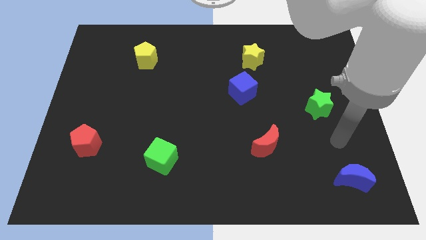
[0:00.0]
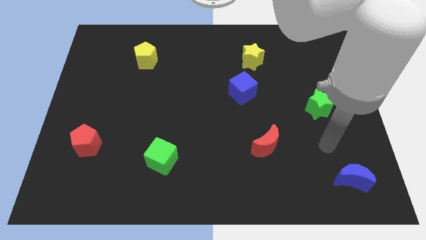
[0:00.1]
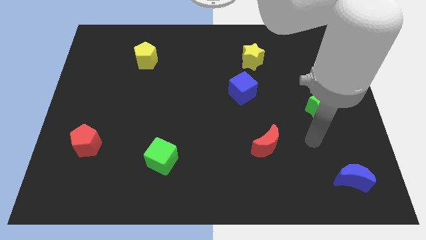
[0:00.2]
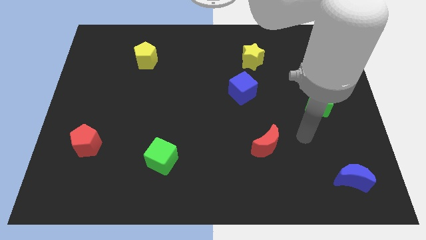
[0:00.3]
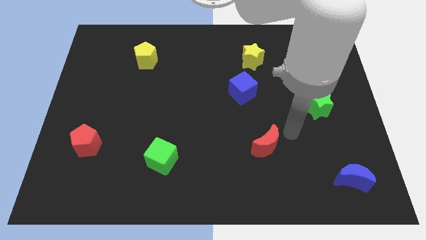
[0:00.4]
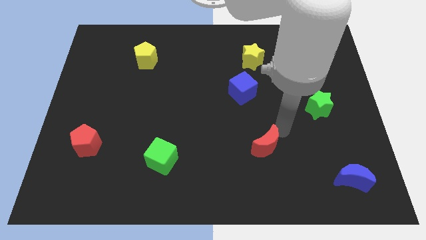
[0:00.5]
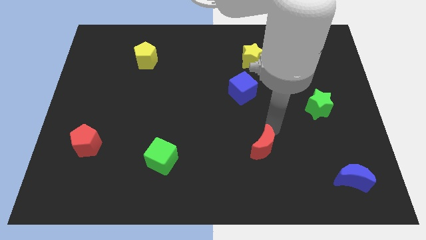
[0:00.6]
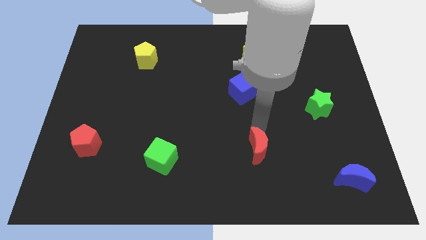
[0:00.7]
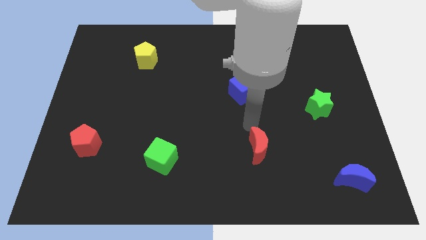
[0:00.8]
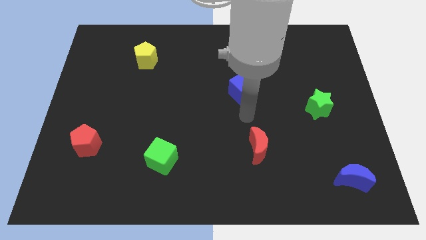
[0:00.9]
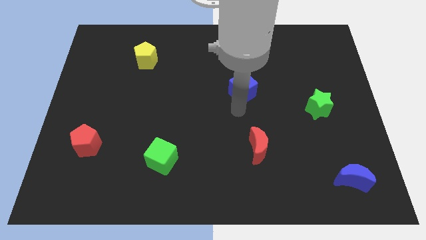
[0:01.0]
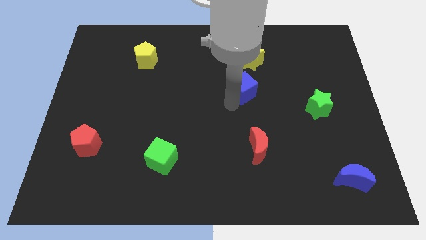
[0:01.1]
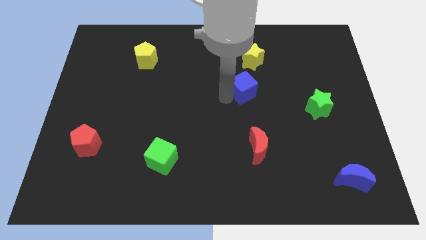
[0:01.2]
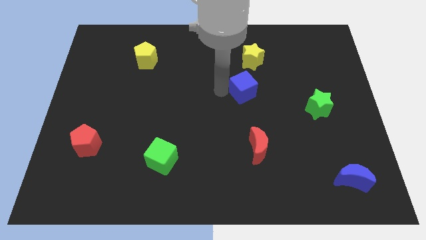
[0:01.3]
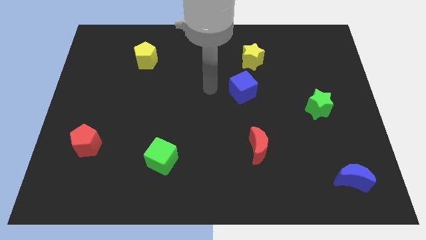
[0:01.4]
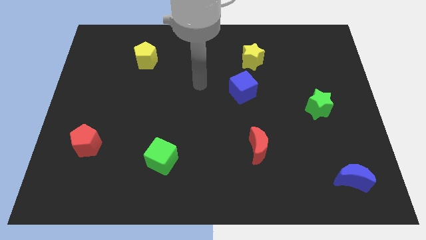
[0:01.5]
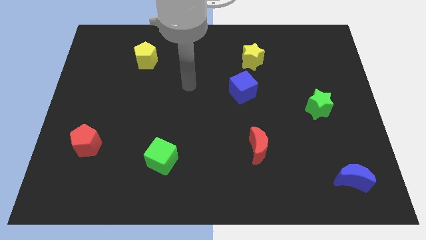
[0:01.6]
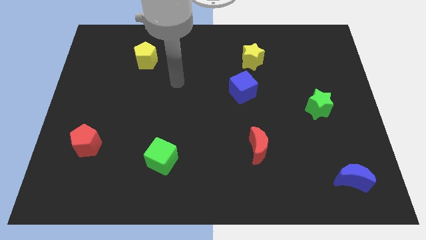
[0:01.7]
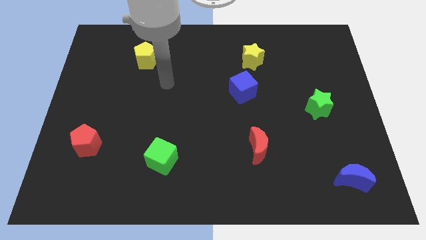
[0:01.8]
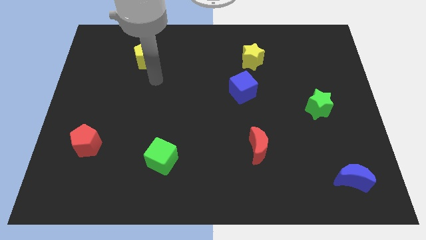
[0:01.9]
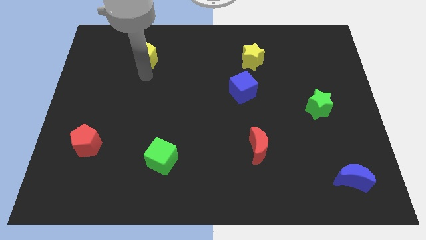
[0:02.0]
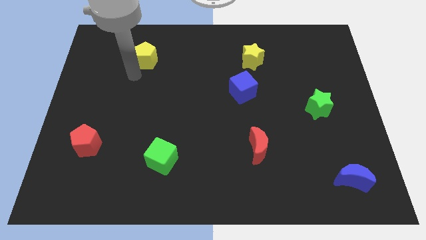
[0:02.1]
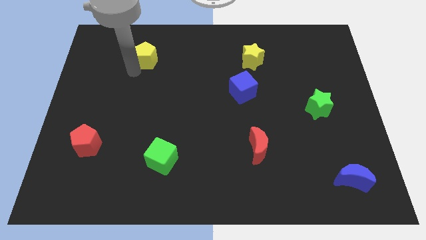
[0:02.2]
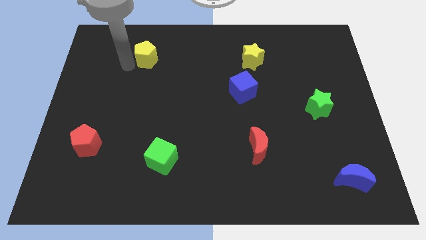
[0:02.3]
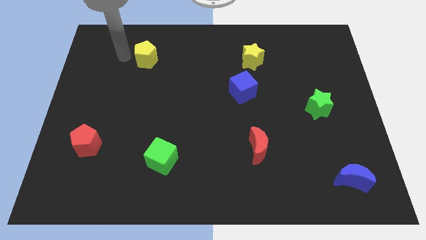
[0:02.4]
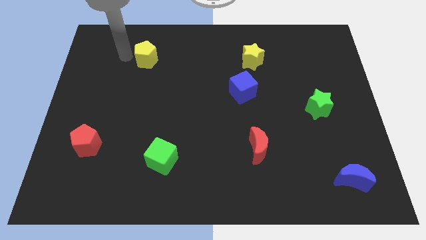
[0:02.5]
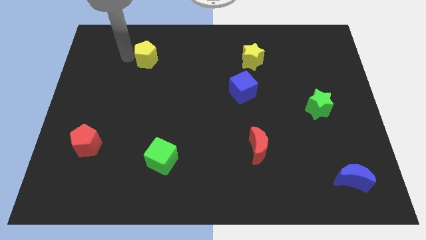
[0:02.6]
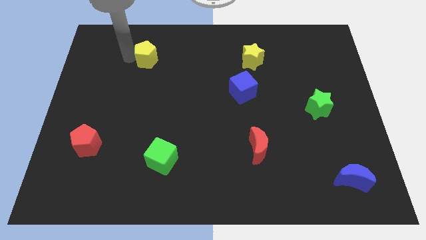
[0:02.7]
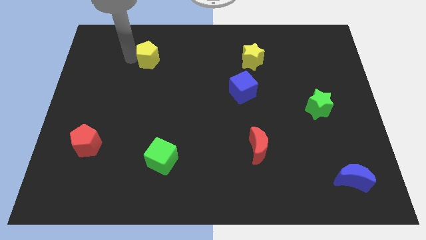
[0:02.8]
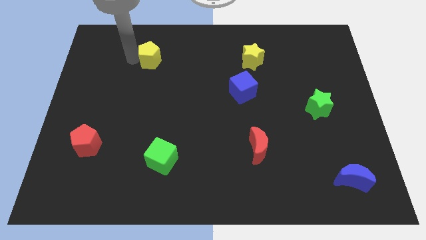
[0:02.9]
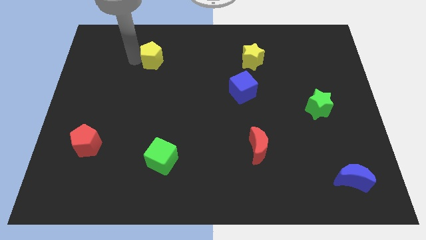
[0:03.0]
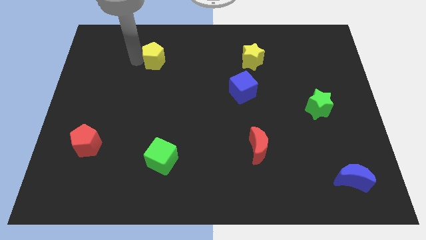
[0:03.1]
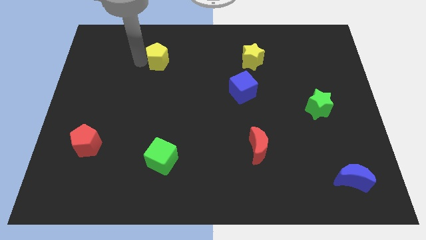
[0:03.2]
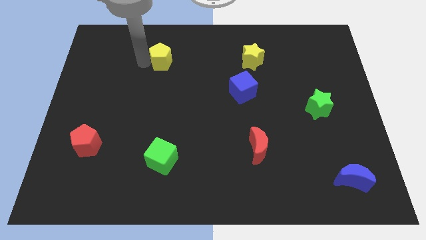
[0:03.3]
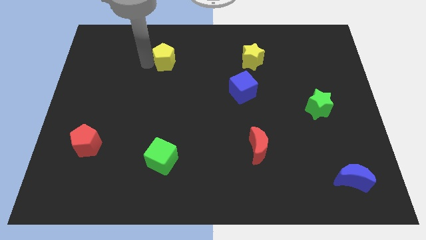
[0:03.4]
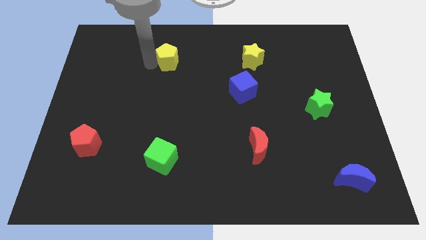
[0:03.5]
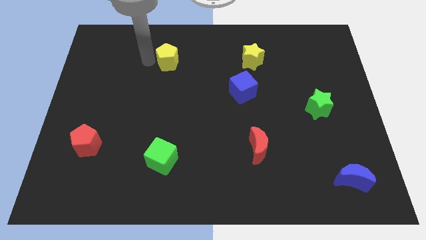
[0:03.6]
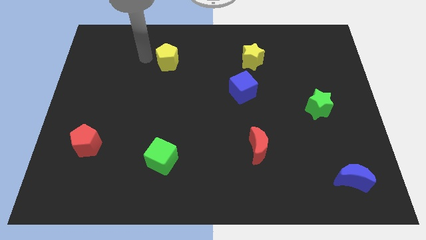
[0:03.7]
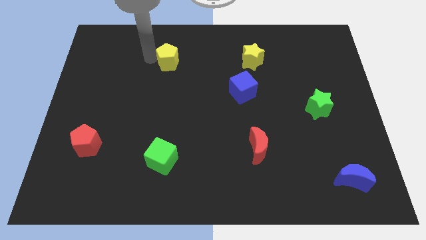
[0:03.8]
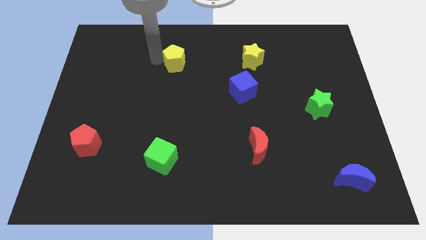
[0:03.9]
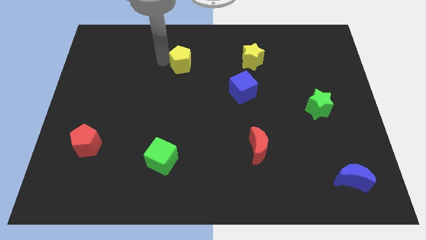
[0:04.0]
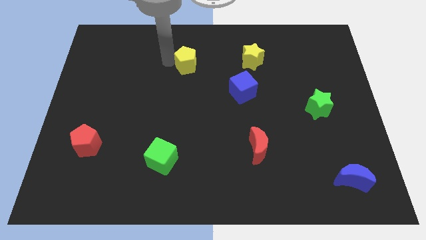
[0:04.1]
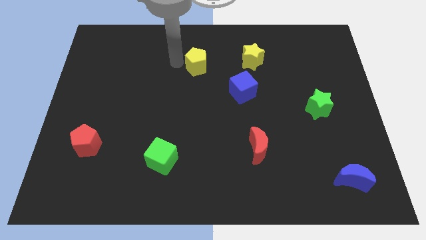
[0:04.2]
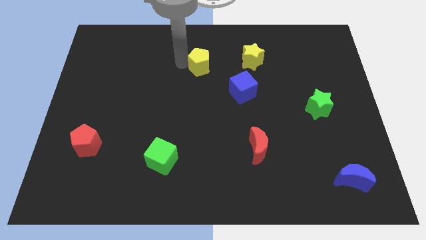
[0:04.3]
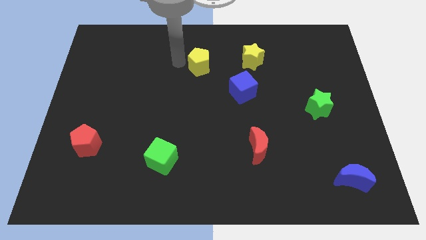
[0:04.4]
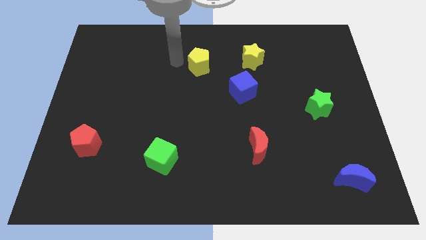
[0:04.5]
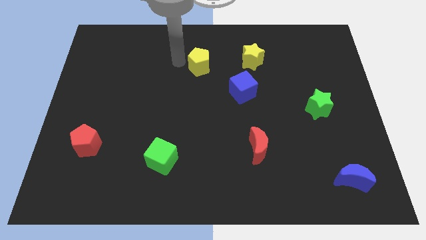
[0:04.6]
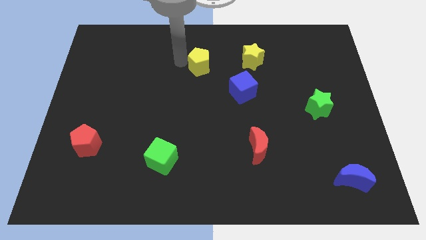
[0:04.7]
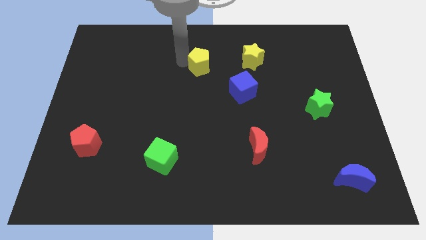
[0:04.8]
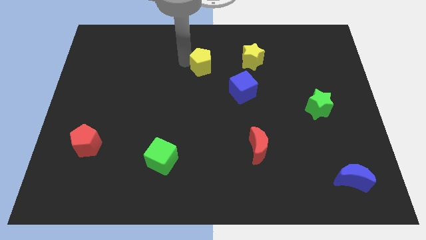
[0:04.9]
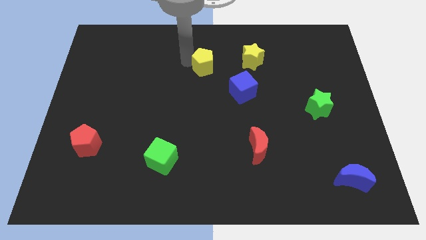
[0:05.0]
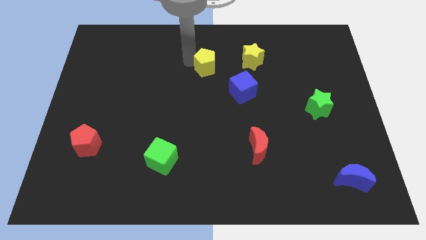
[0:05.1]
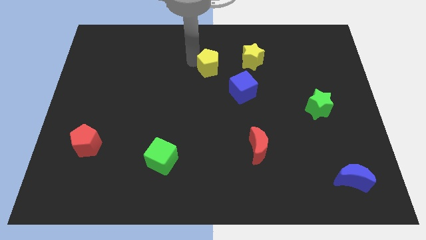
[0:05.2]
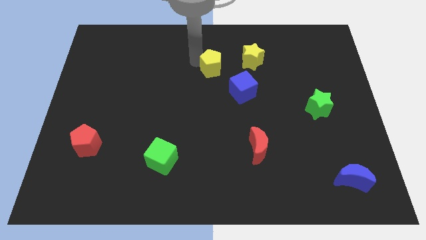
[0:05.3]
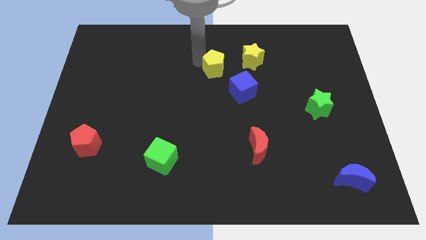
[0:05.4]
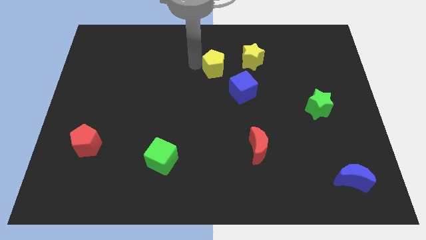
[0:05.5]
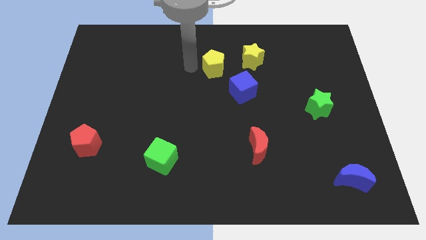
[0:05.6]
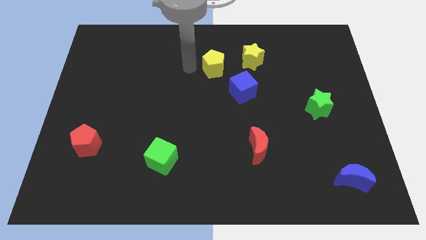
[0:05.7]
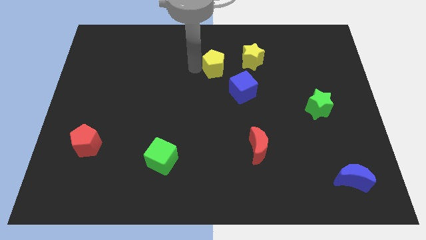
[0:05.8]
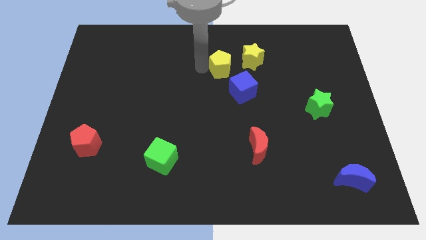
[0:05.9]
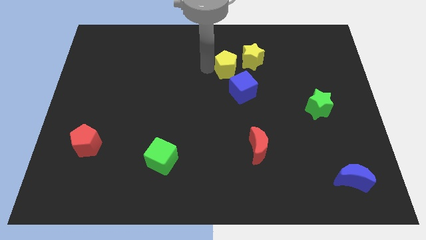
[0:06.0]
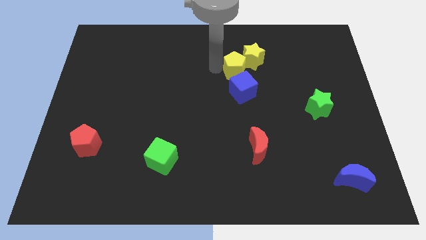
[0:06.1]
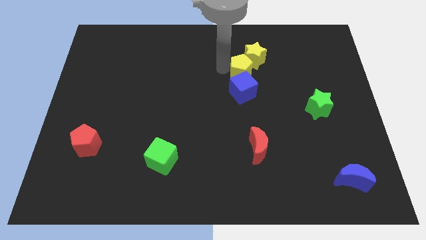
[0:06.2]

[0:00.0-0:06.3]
put the yellow pentagon diagonally up and to the right of the blue cube

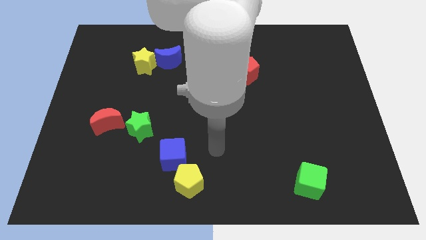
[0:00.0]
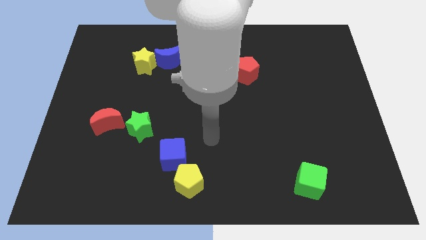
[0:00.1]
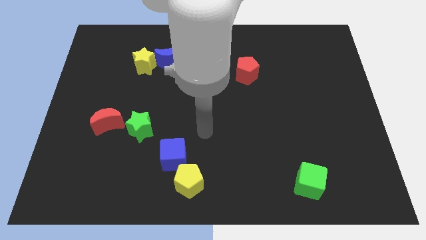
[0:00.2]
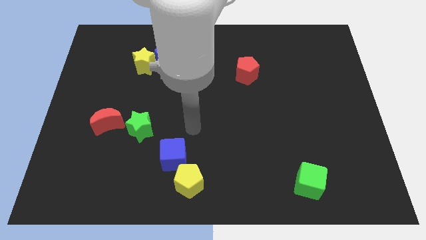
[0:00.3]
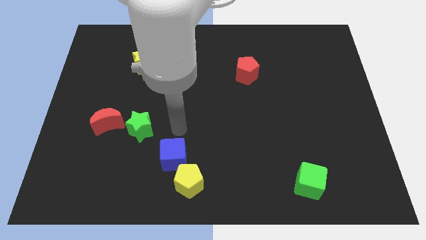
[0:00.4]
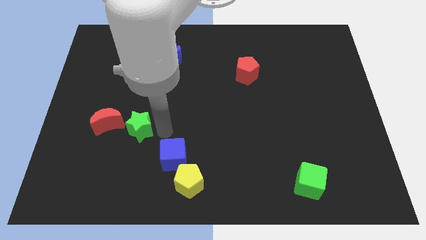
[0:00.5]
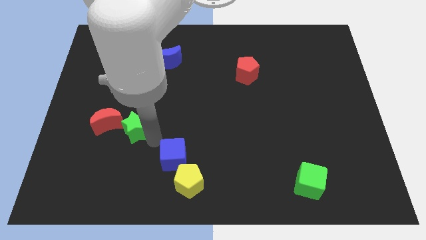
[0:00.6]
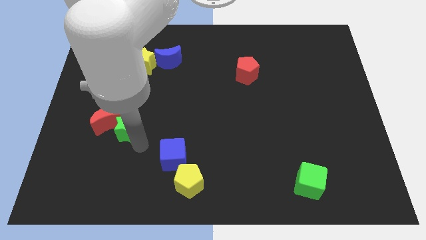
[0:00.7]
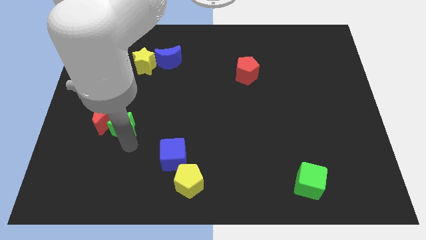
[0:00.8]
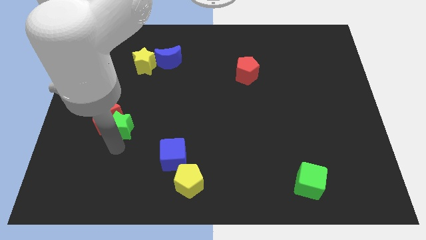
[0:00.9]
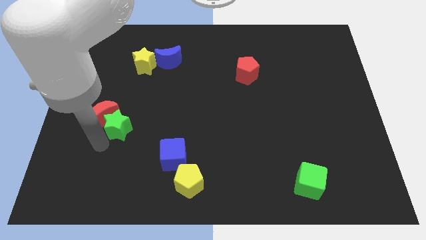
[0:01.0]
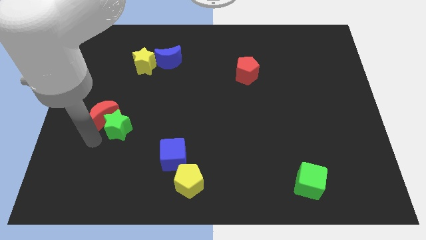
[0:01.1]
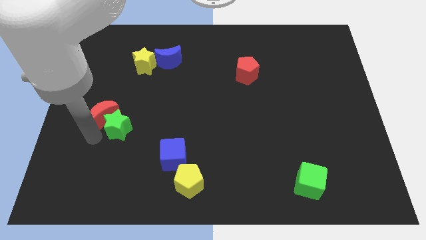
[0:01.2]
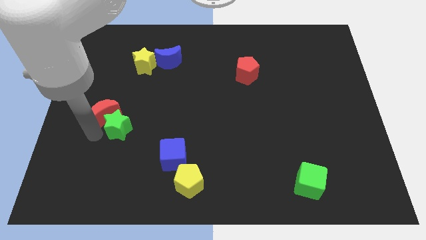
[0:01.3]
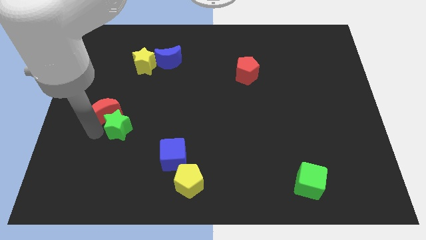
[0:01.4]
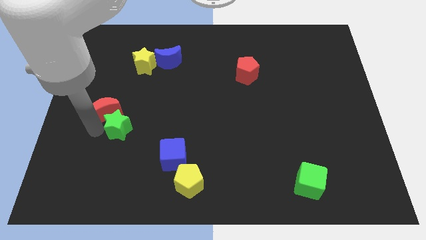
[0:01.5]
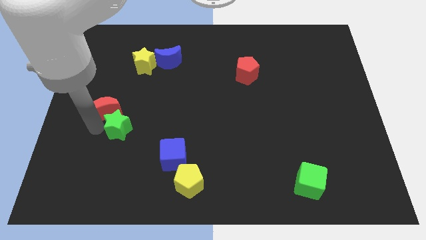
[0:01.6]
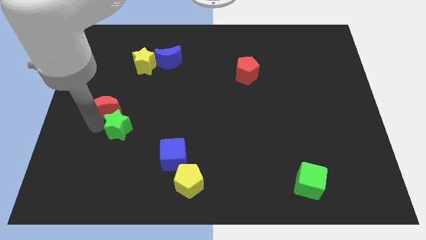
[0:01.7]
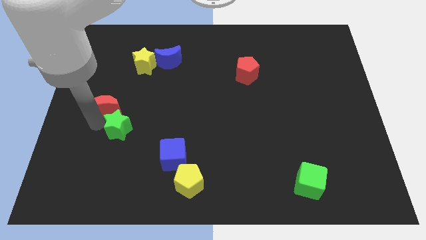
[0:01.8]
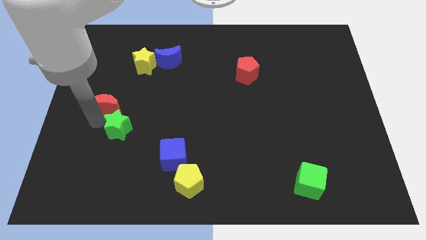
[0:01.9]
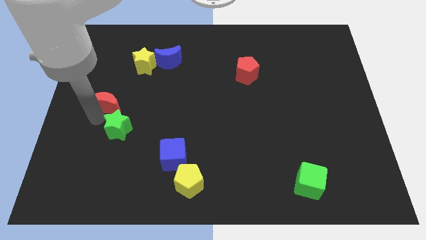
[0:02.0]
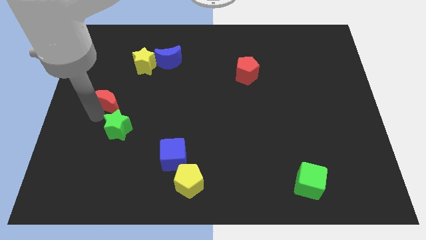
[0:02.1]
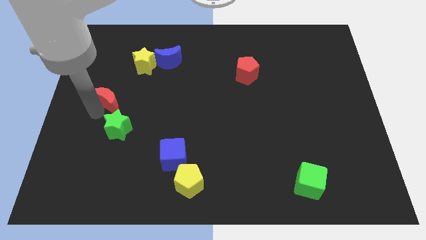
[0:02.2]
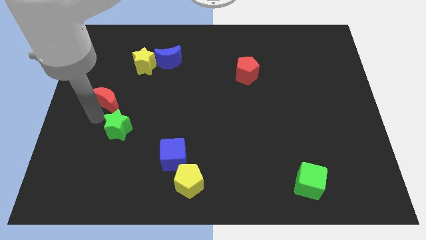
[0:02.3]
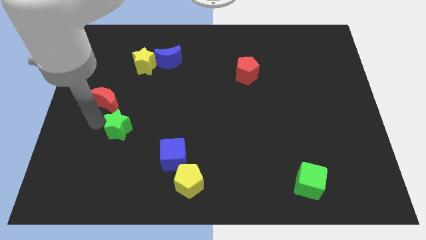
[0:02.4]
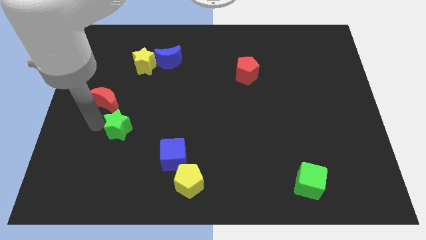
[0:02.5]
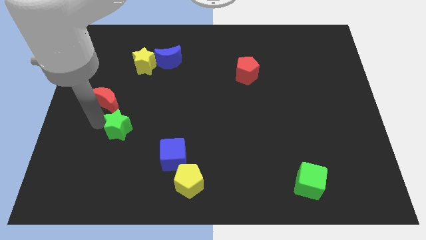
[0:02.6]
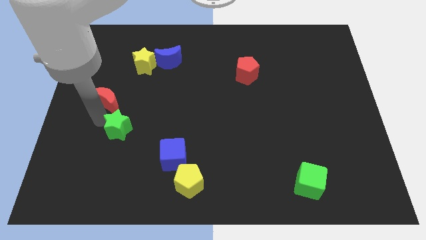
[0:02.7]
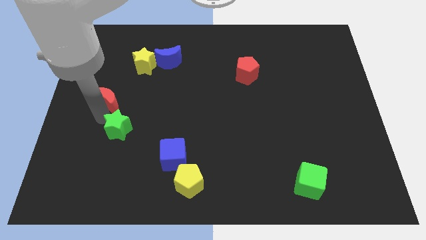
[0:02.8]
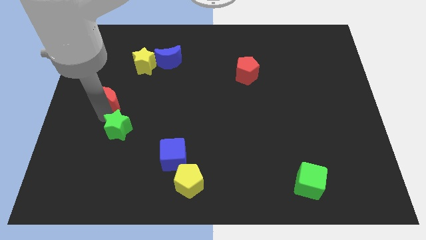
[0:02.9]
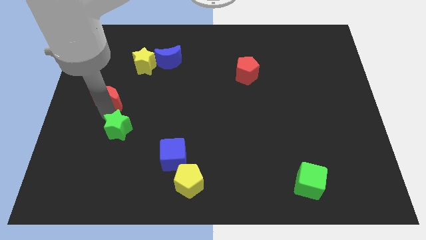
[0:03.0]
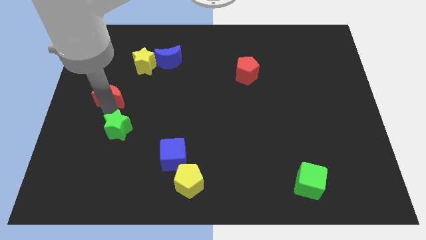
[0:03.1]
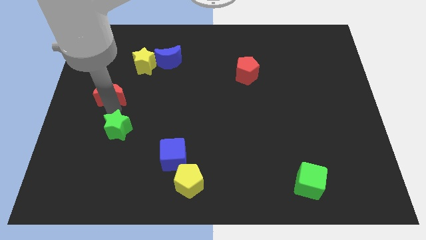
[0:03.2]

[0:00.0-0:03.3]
push the red moon to the bottom left side of the yellow star
